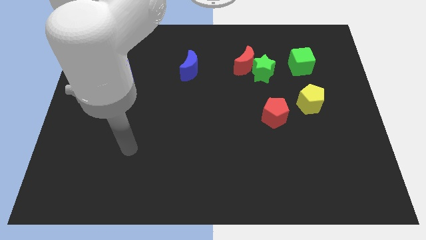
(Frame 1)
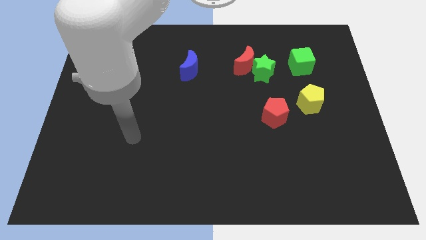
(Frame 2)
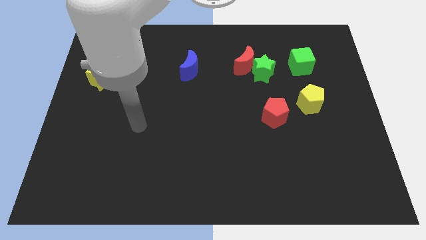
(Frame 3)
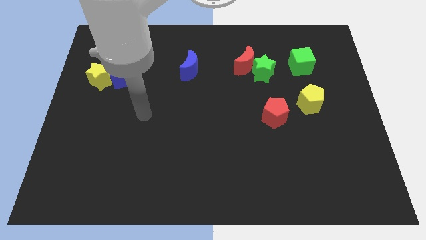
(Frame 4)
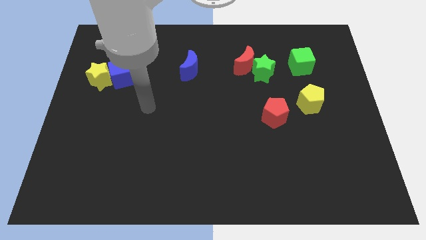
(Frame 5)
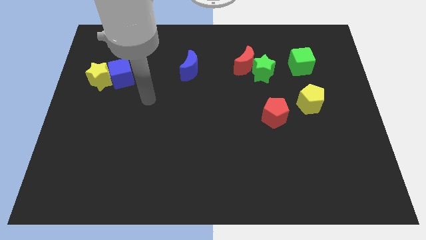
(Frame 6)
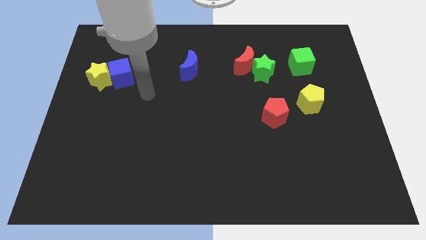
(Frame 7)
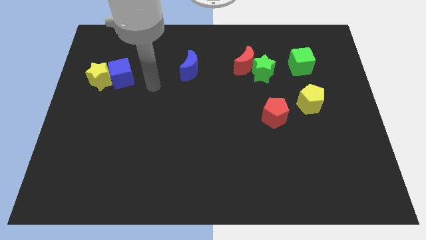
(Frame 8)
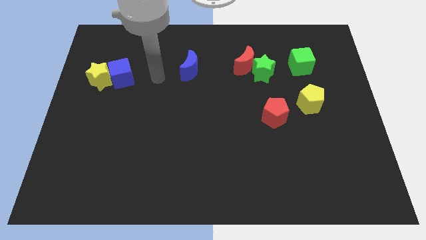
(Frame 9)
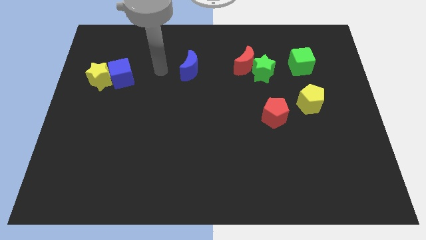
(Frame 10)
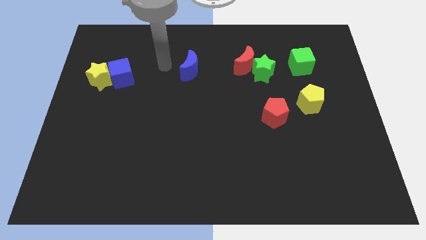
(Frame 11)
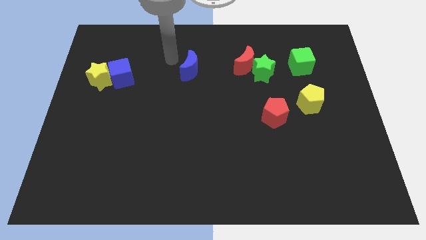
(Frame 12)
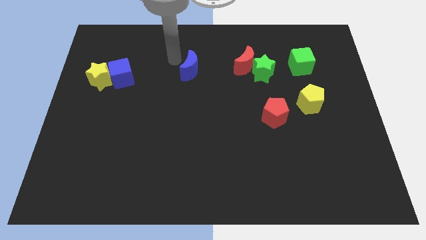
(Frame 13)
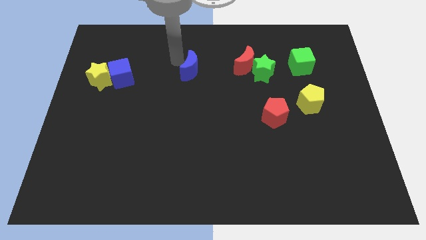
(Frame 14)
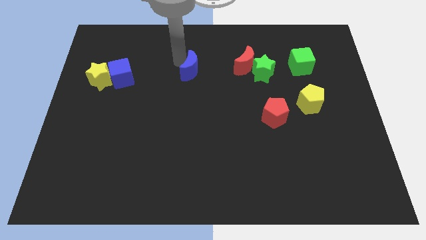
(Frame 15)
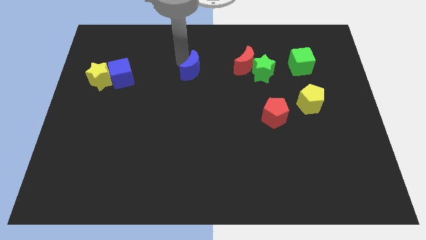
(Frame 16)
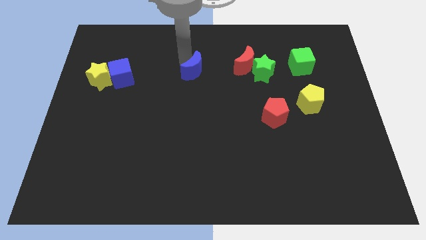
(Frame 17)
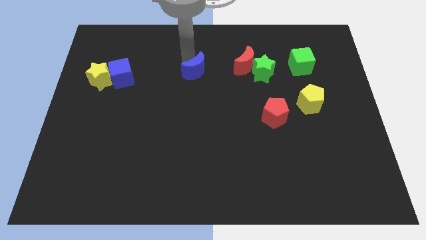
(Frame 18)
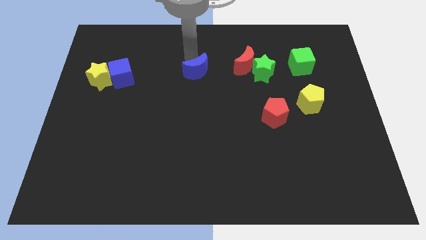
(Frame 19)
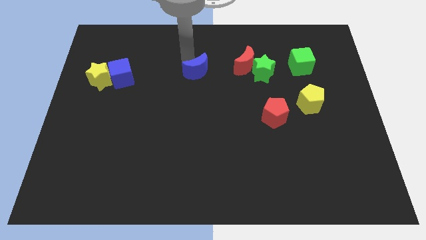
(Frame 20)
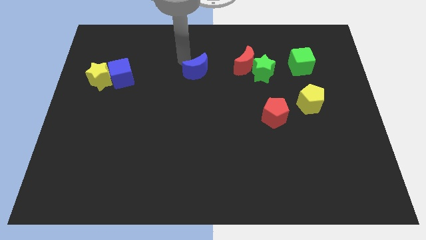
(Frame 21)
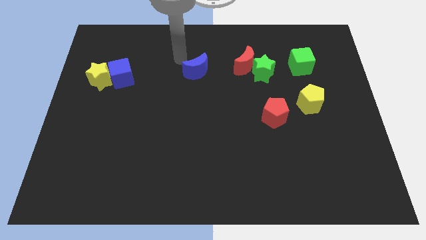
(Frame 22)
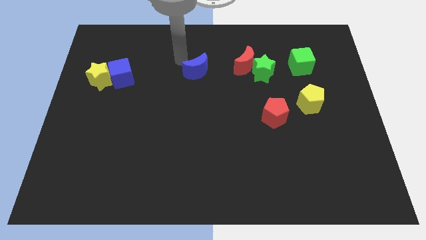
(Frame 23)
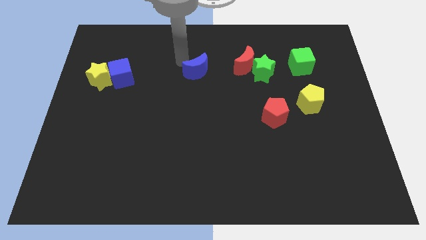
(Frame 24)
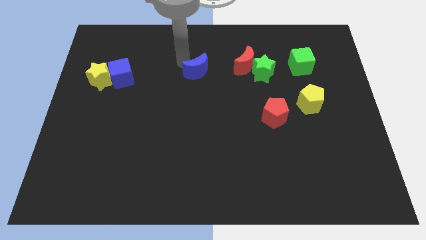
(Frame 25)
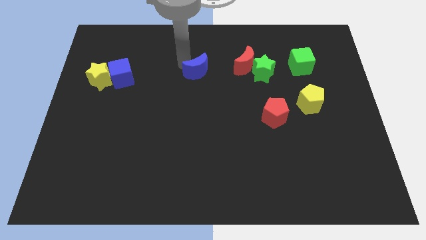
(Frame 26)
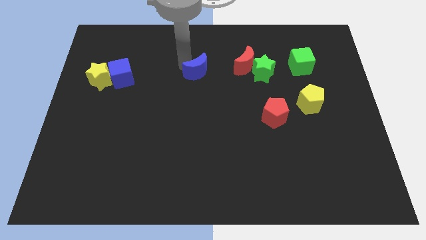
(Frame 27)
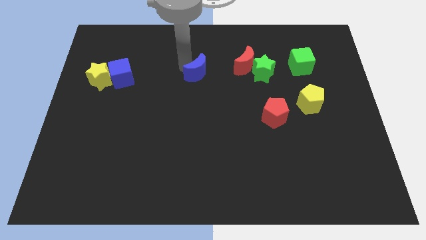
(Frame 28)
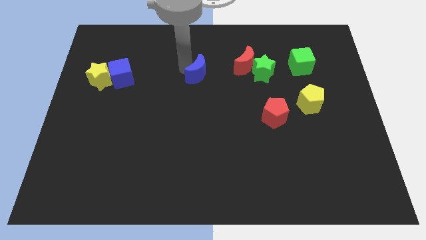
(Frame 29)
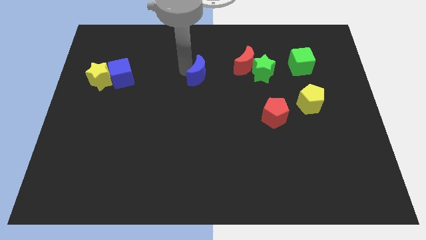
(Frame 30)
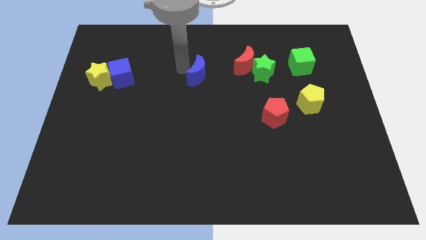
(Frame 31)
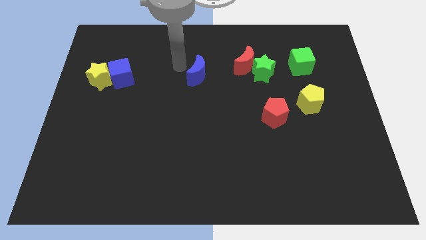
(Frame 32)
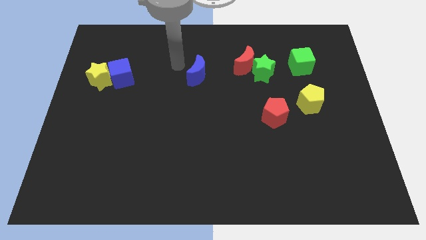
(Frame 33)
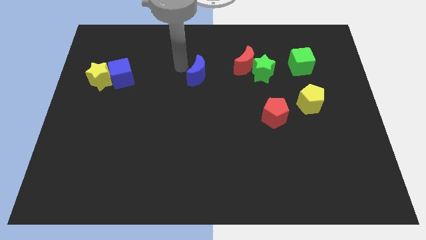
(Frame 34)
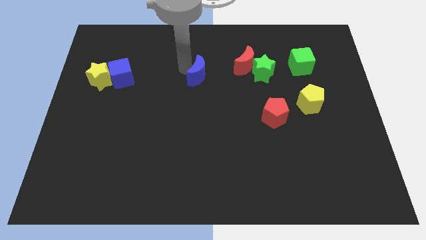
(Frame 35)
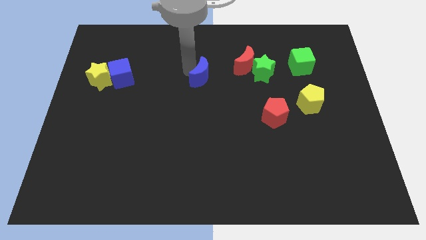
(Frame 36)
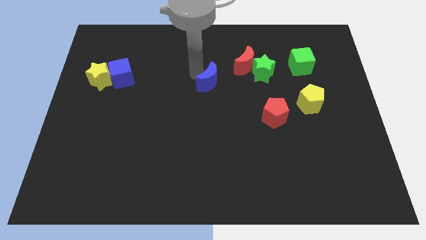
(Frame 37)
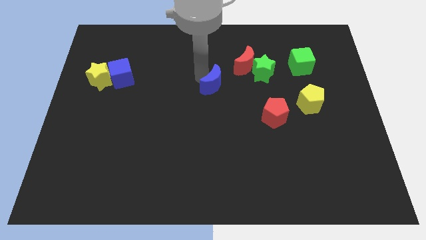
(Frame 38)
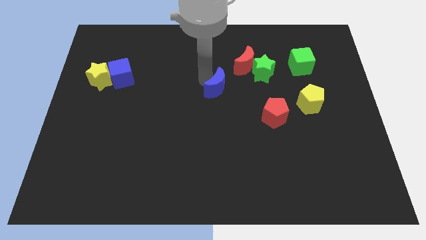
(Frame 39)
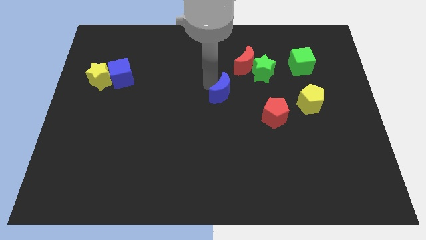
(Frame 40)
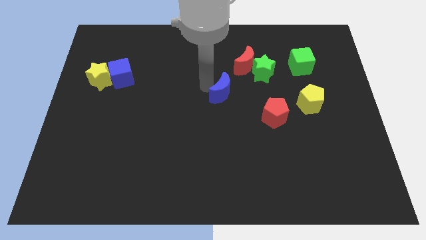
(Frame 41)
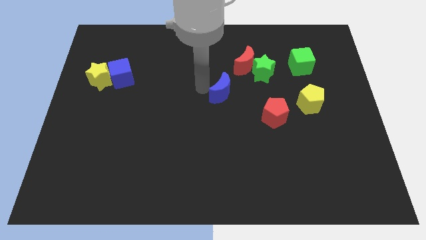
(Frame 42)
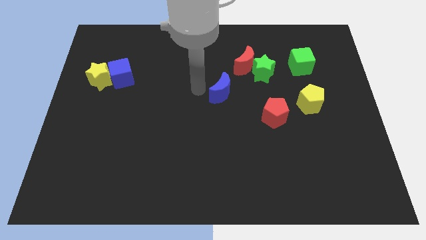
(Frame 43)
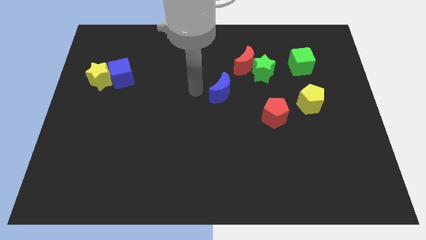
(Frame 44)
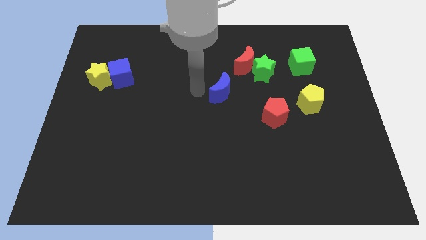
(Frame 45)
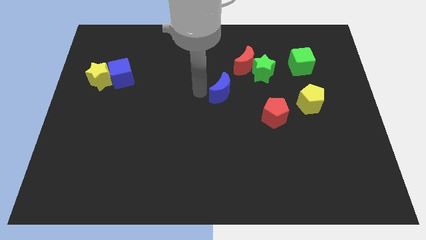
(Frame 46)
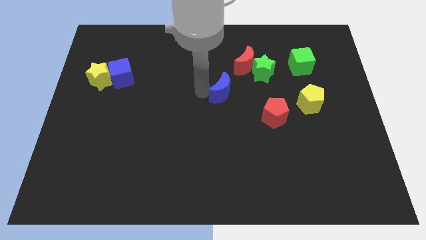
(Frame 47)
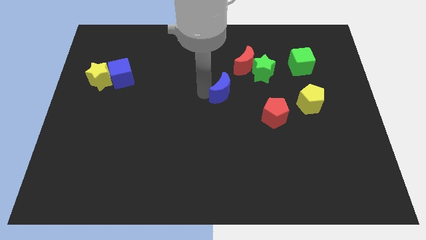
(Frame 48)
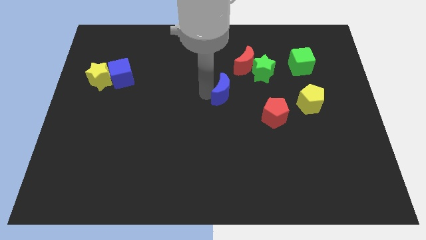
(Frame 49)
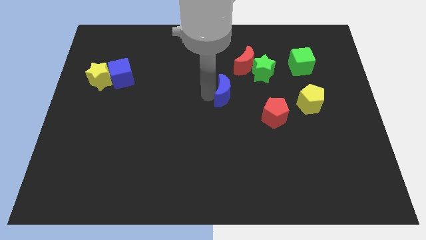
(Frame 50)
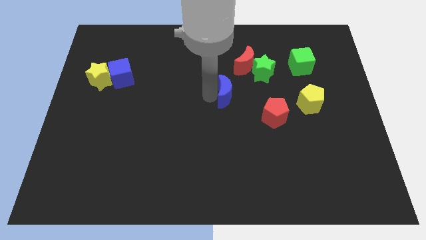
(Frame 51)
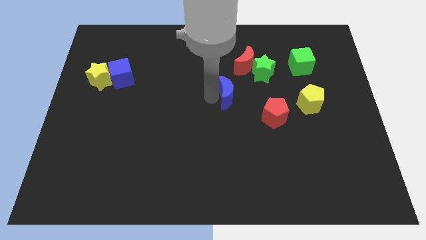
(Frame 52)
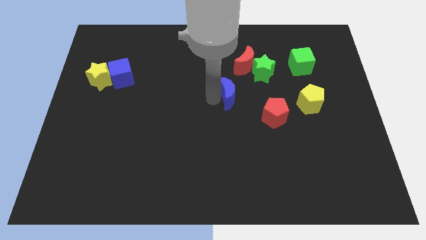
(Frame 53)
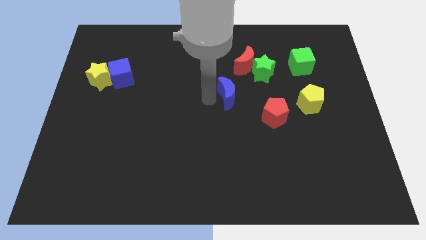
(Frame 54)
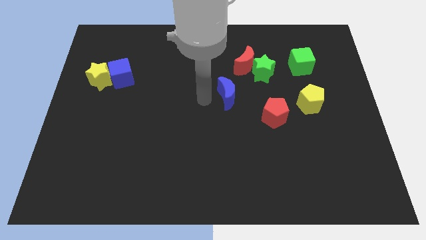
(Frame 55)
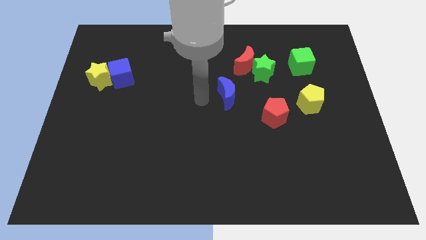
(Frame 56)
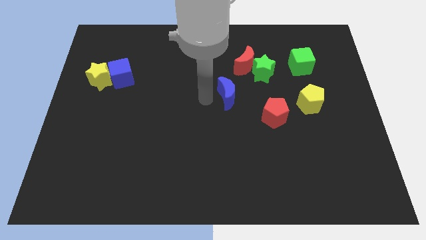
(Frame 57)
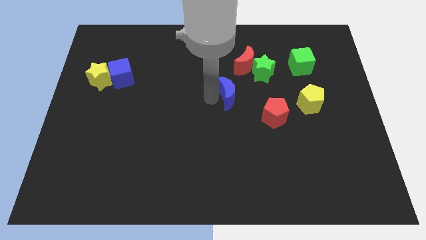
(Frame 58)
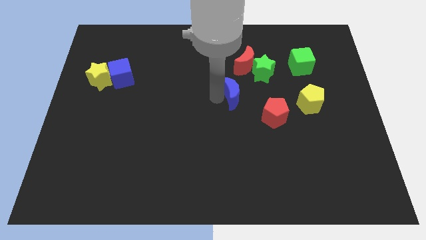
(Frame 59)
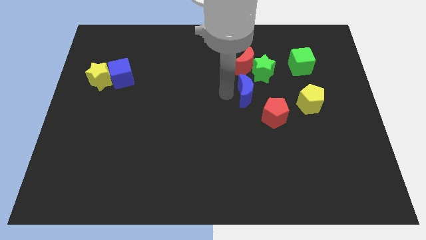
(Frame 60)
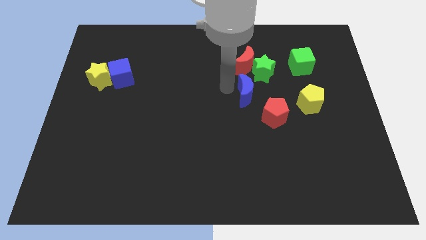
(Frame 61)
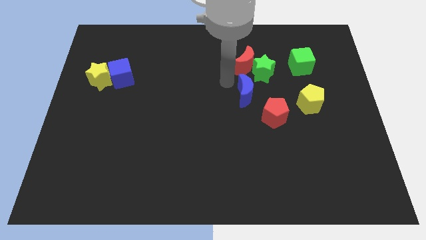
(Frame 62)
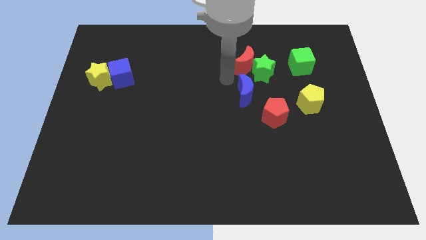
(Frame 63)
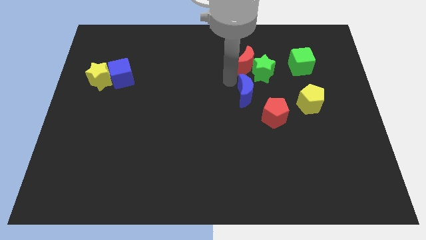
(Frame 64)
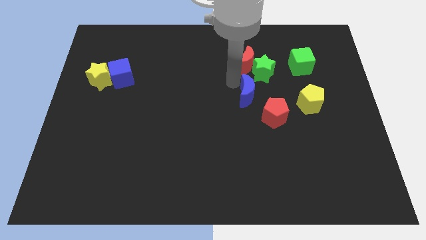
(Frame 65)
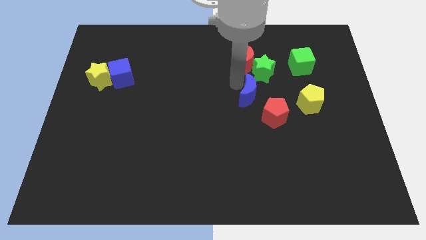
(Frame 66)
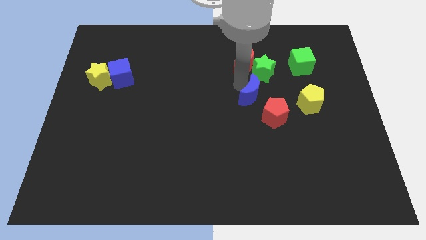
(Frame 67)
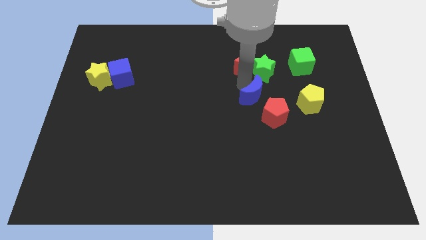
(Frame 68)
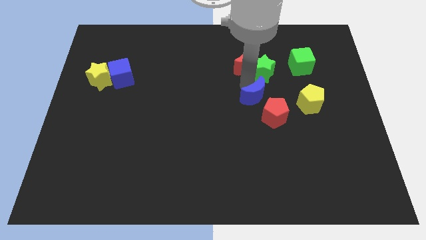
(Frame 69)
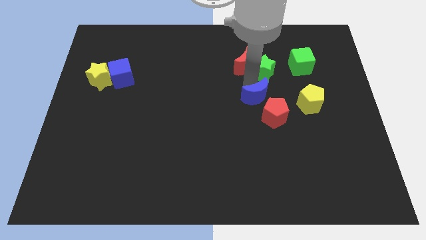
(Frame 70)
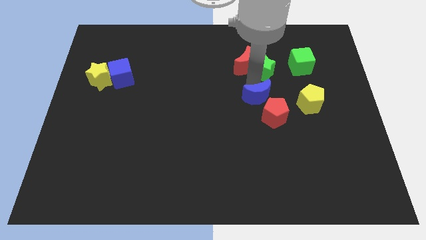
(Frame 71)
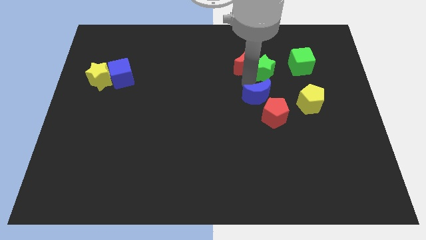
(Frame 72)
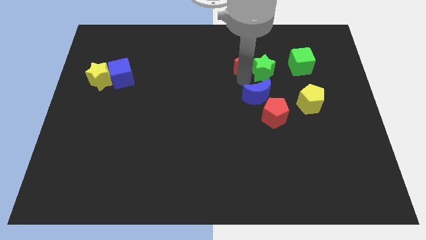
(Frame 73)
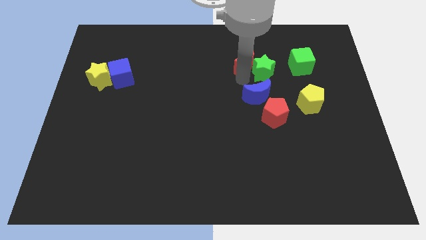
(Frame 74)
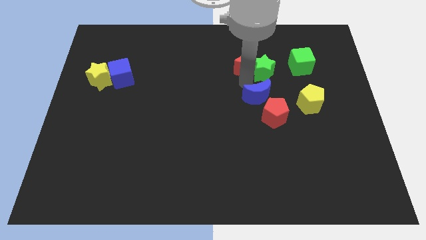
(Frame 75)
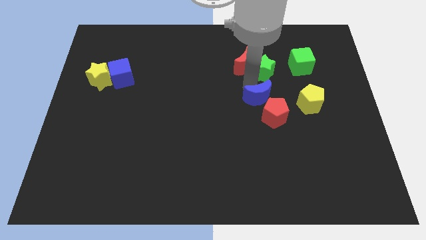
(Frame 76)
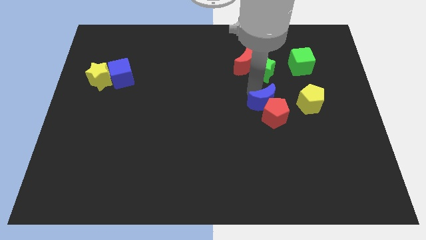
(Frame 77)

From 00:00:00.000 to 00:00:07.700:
slide the blue moon towards the red pentagon
